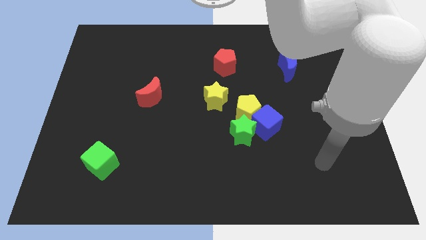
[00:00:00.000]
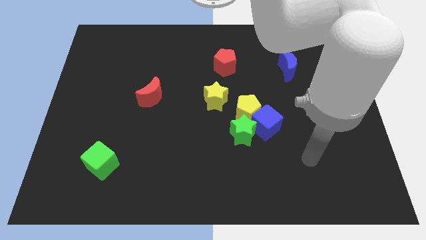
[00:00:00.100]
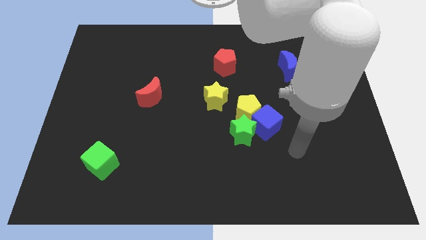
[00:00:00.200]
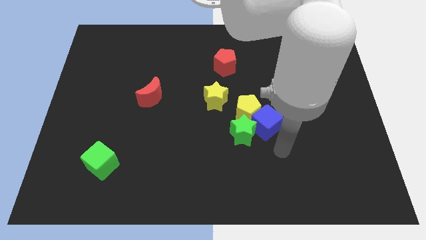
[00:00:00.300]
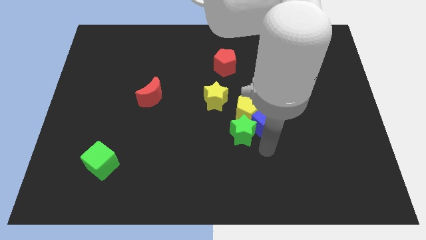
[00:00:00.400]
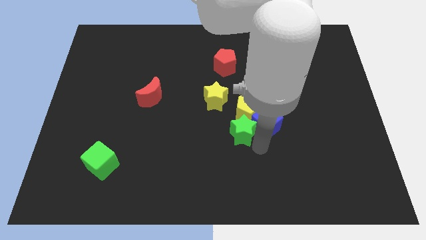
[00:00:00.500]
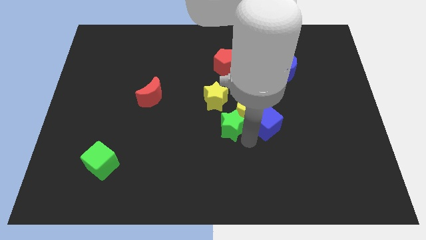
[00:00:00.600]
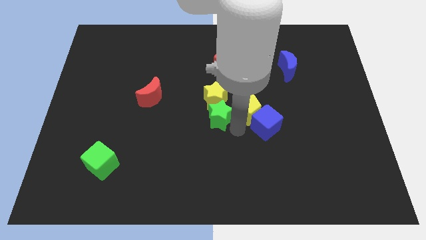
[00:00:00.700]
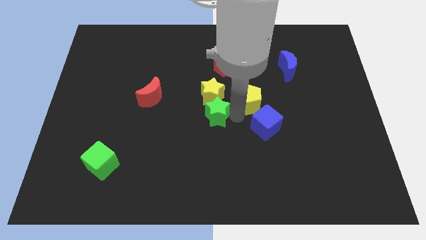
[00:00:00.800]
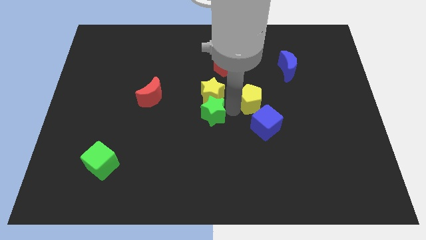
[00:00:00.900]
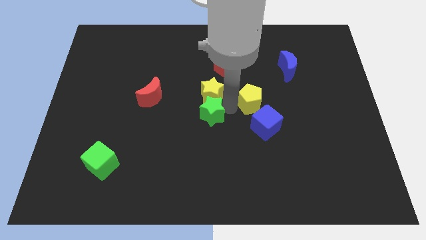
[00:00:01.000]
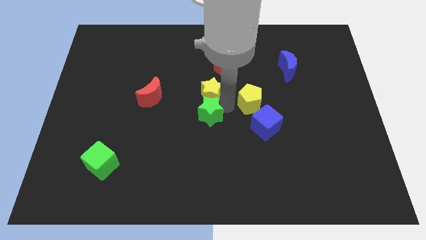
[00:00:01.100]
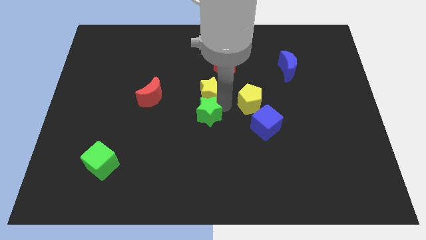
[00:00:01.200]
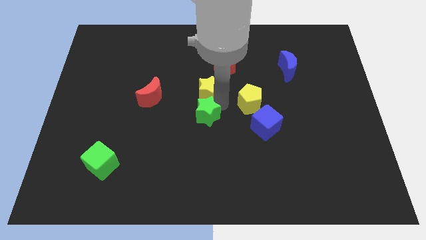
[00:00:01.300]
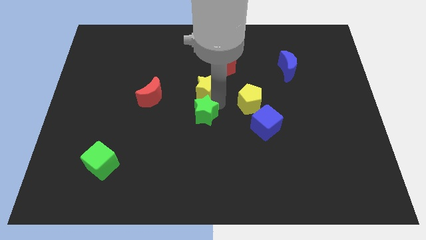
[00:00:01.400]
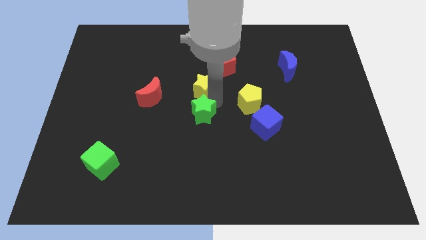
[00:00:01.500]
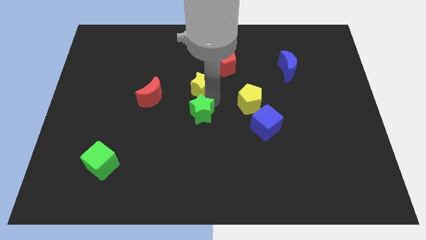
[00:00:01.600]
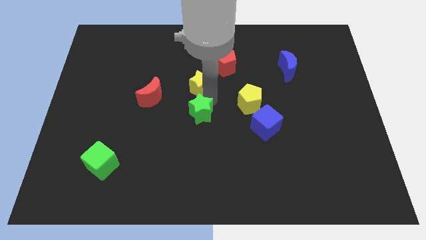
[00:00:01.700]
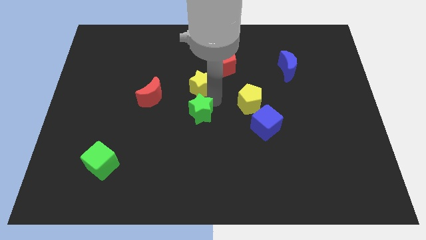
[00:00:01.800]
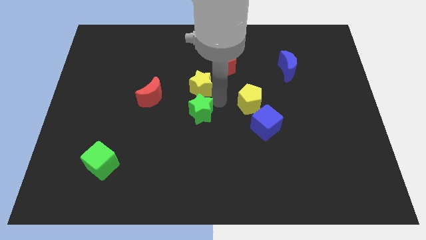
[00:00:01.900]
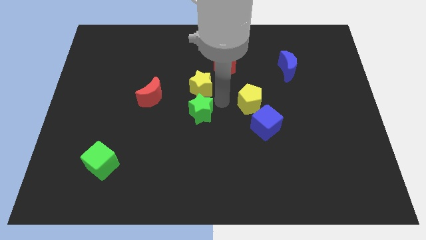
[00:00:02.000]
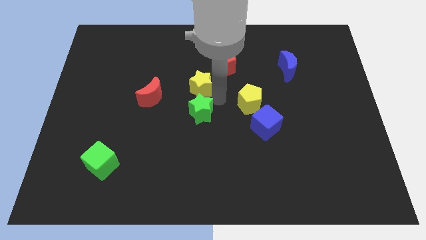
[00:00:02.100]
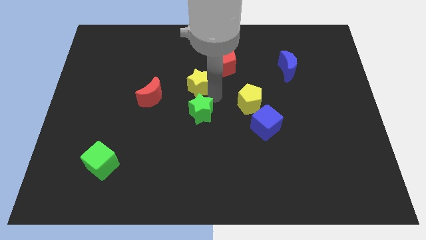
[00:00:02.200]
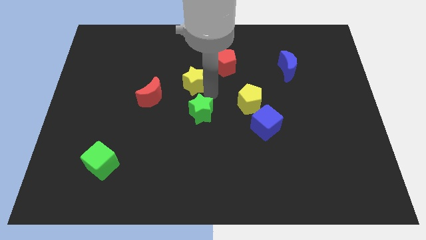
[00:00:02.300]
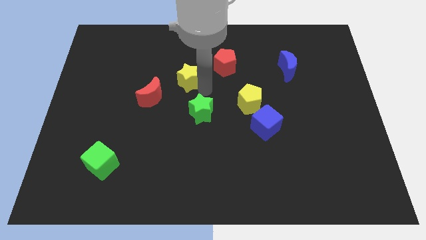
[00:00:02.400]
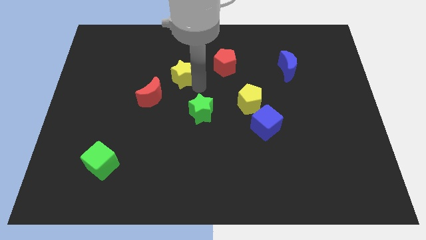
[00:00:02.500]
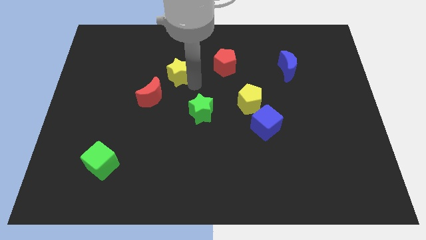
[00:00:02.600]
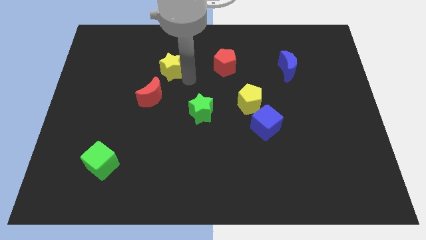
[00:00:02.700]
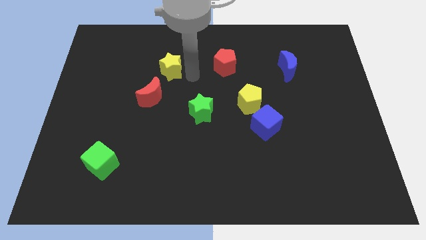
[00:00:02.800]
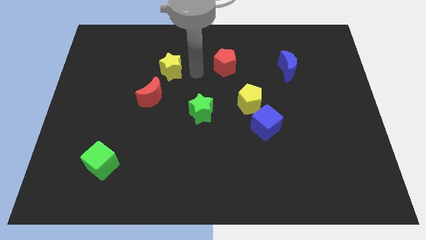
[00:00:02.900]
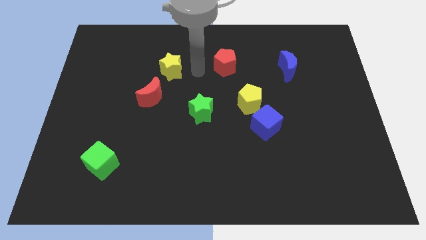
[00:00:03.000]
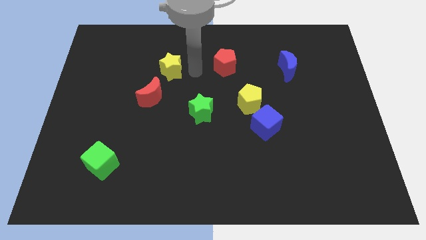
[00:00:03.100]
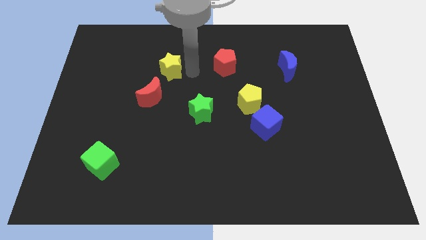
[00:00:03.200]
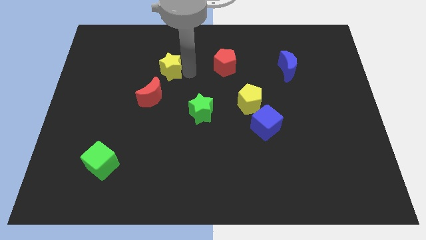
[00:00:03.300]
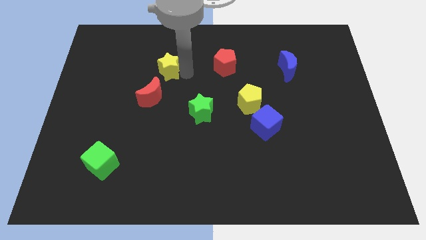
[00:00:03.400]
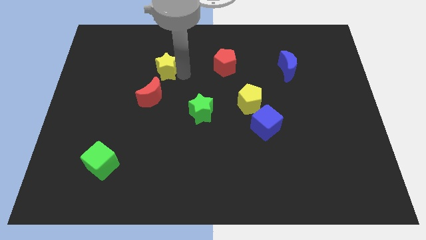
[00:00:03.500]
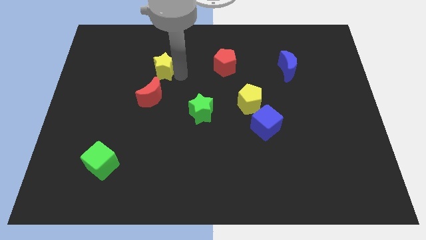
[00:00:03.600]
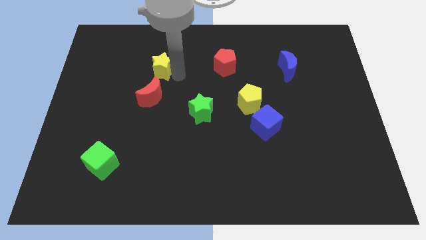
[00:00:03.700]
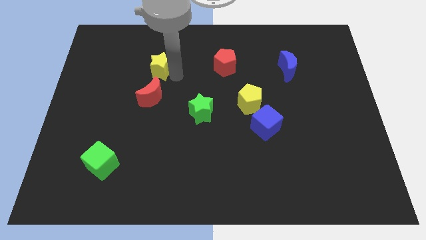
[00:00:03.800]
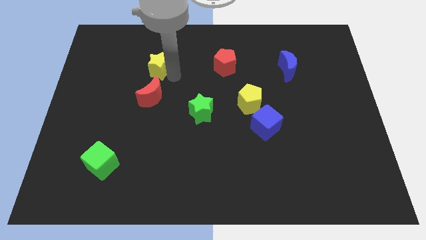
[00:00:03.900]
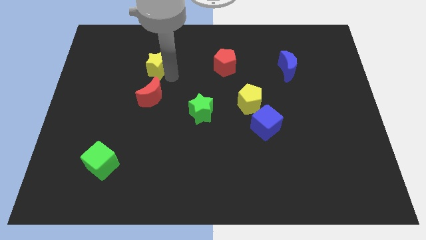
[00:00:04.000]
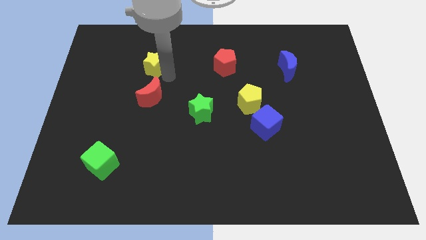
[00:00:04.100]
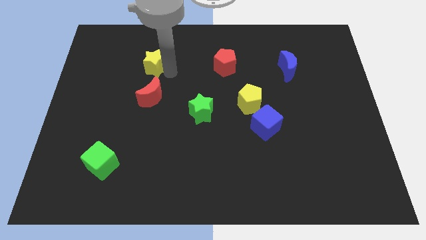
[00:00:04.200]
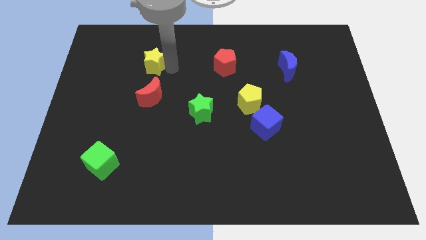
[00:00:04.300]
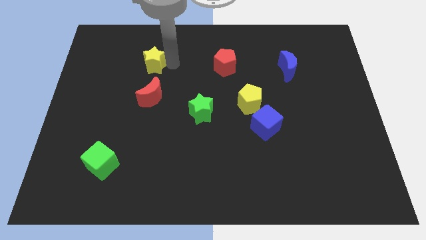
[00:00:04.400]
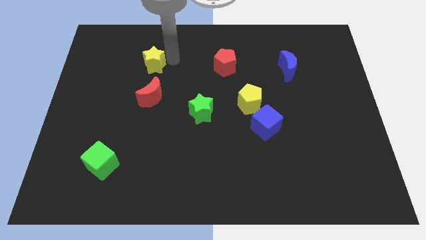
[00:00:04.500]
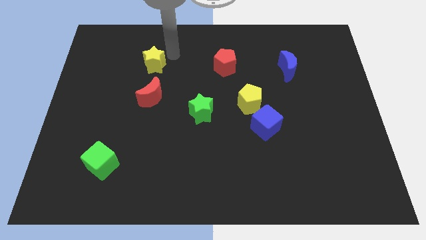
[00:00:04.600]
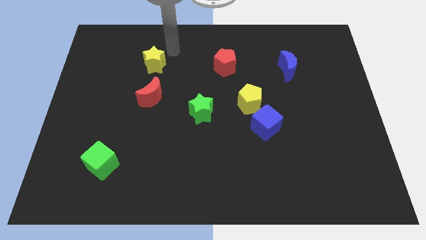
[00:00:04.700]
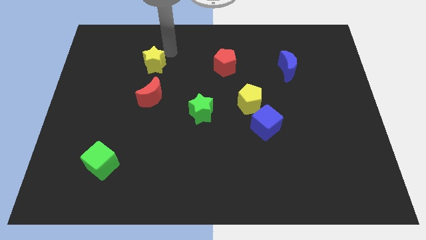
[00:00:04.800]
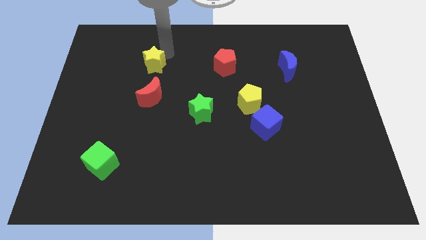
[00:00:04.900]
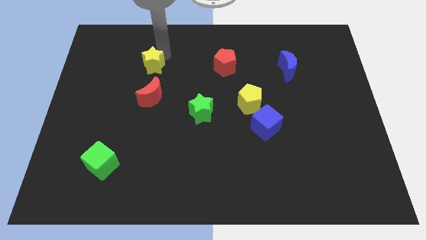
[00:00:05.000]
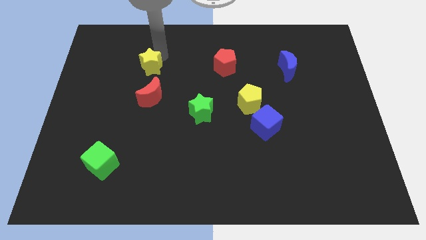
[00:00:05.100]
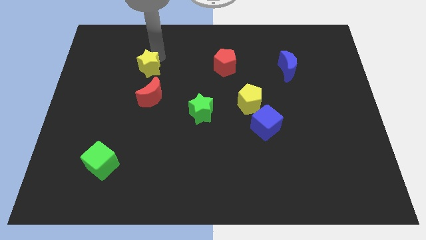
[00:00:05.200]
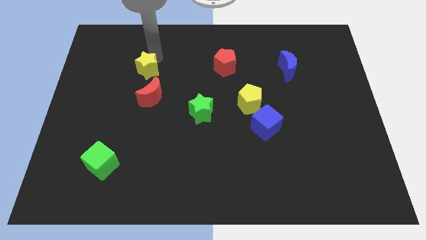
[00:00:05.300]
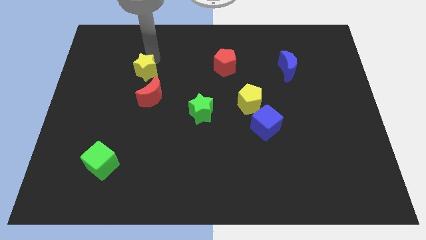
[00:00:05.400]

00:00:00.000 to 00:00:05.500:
slide the yellow star diagonally up and to the left of the red moon

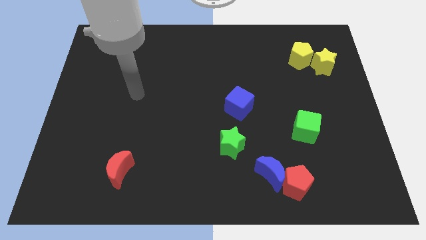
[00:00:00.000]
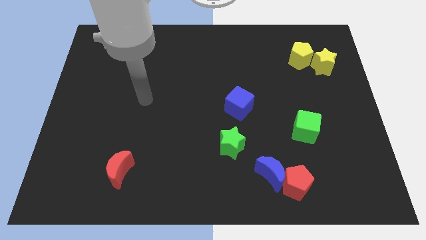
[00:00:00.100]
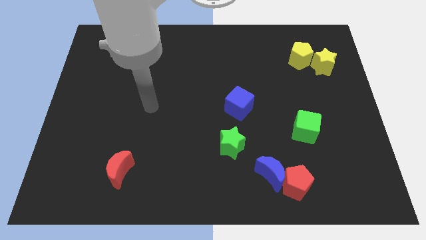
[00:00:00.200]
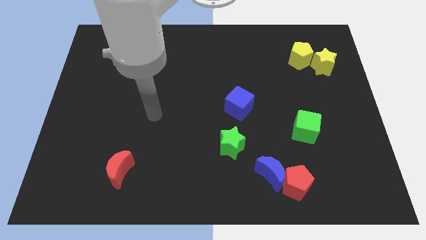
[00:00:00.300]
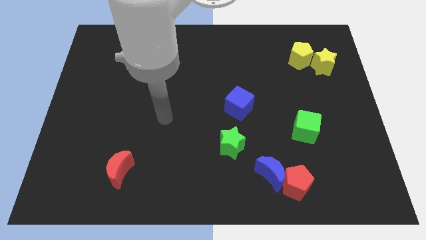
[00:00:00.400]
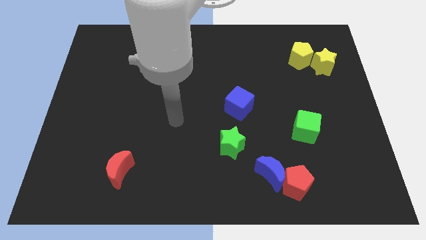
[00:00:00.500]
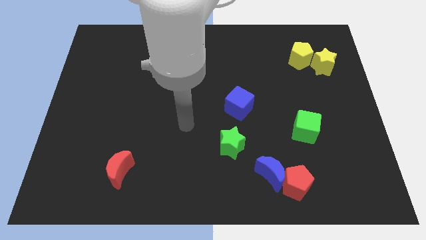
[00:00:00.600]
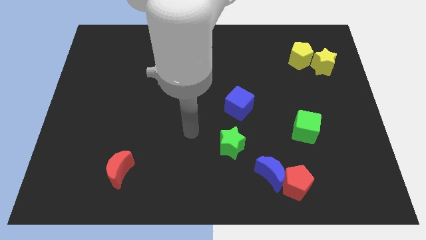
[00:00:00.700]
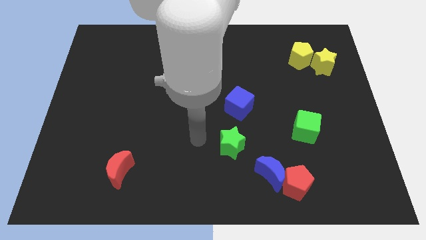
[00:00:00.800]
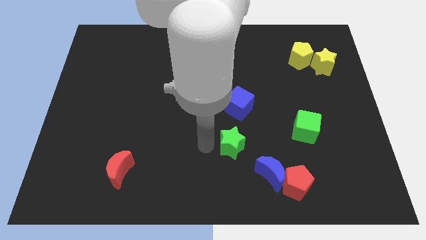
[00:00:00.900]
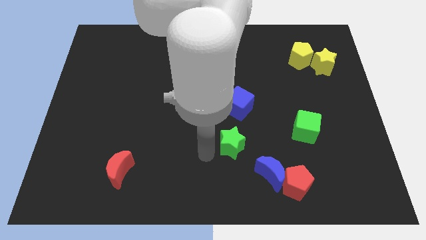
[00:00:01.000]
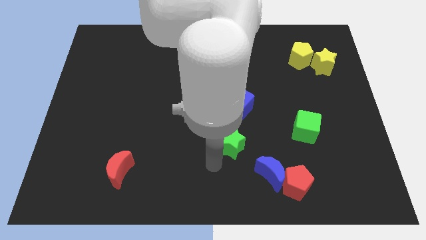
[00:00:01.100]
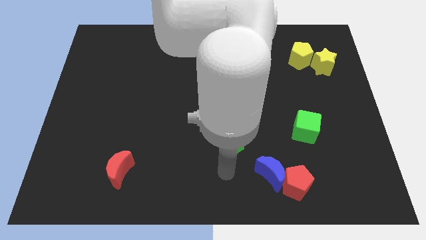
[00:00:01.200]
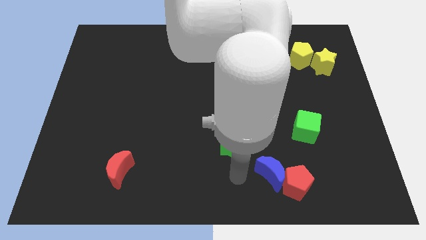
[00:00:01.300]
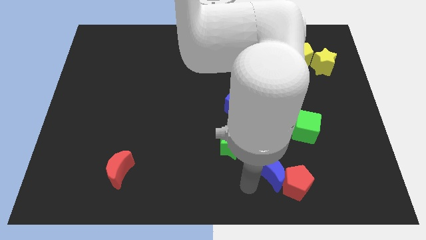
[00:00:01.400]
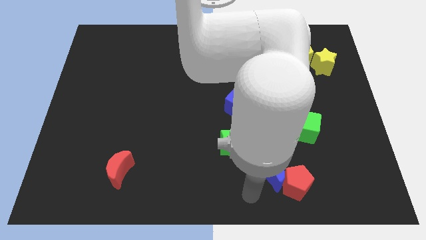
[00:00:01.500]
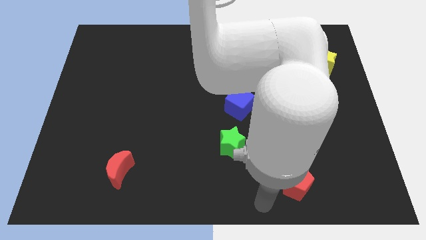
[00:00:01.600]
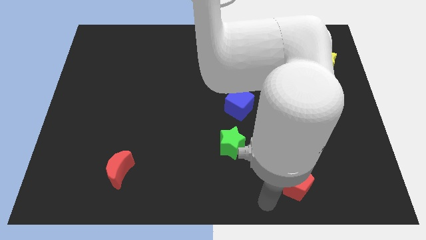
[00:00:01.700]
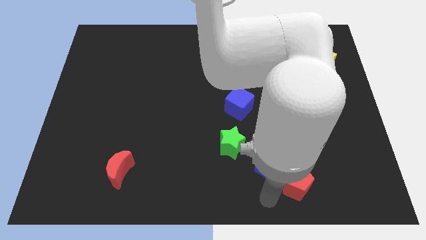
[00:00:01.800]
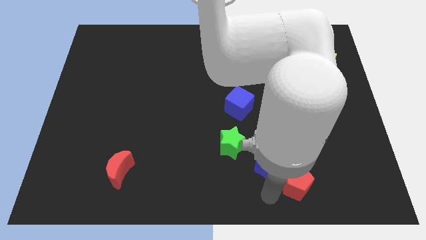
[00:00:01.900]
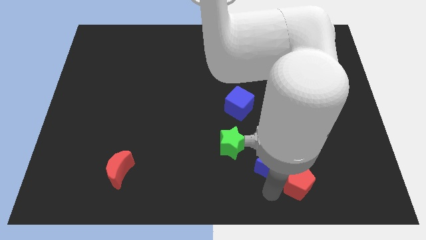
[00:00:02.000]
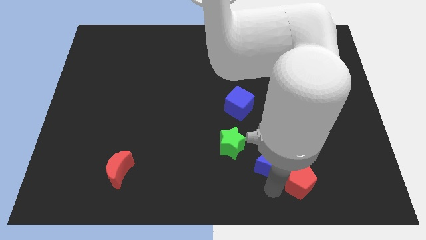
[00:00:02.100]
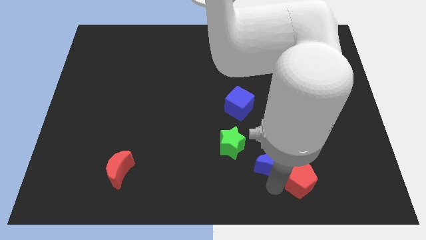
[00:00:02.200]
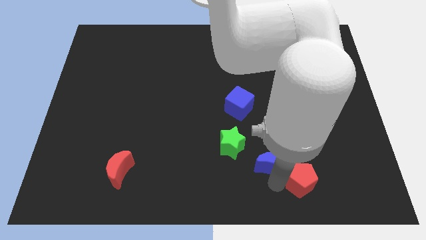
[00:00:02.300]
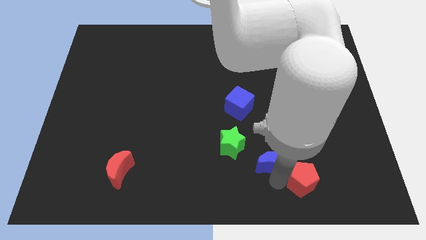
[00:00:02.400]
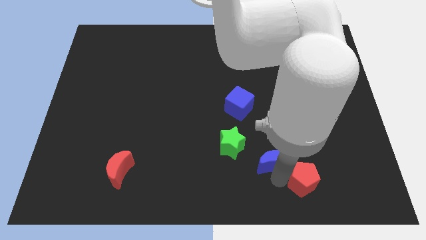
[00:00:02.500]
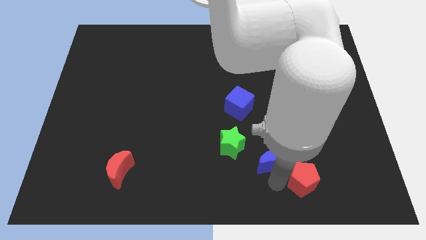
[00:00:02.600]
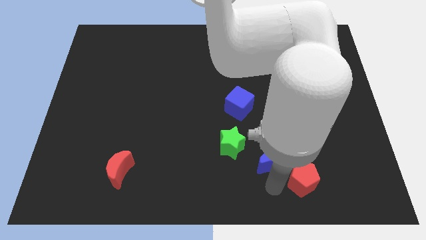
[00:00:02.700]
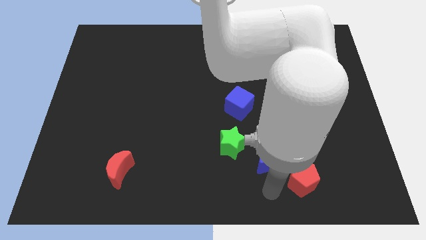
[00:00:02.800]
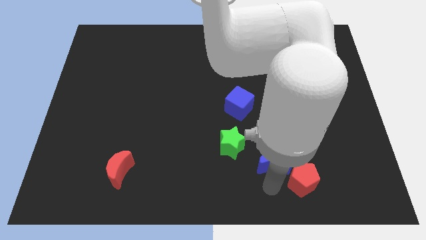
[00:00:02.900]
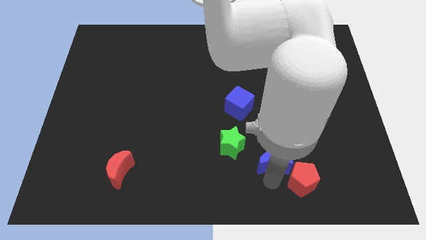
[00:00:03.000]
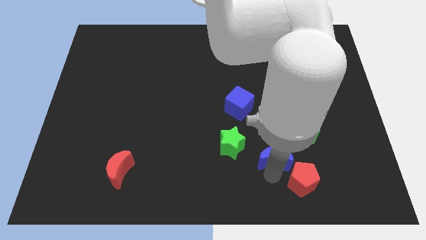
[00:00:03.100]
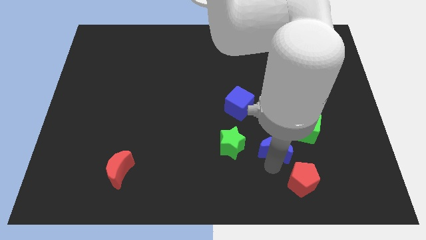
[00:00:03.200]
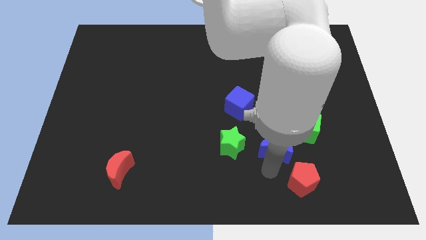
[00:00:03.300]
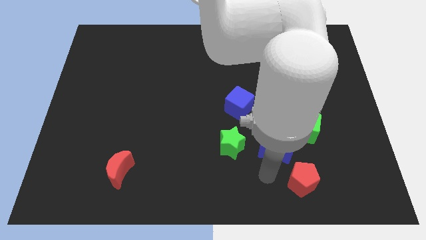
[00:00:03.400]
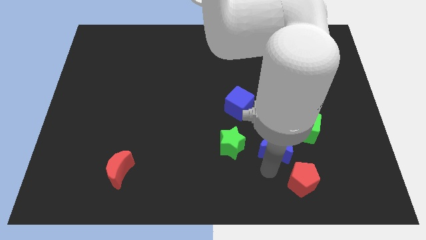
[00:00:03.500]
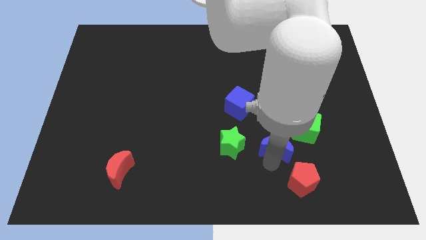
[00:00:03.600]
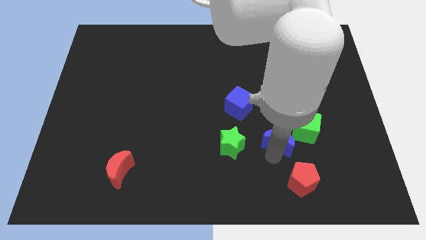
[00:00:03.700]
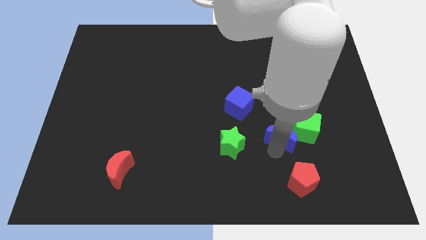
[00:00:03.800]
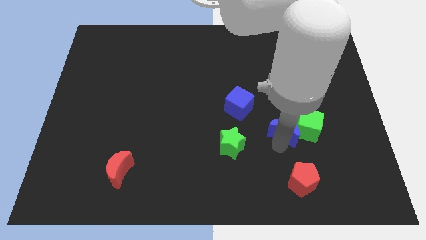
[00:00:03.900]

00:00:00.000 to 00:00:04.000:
put the blue moon diagonally up and to the left of the green cube
